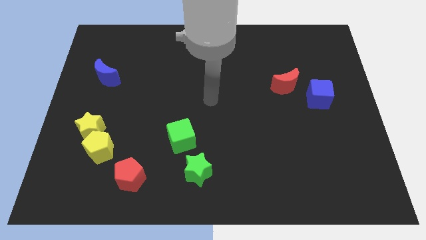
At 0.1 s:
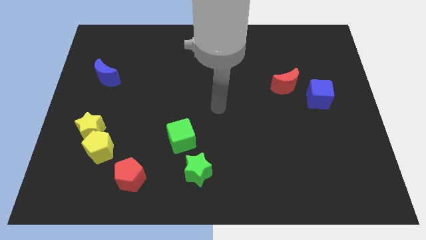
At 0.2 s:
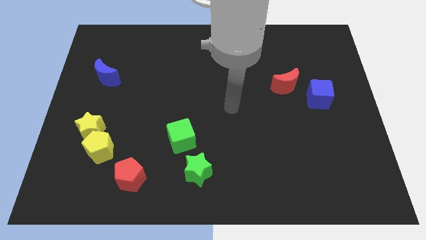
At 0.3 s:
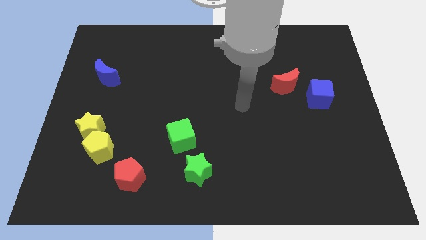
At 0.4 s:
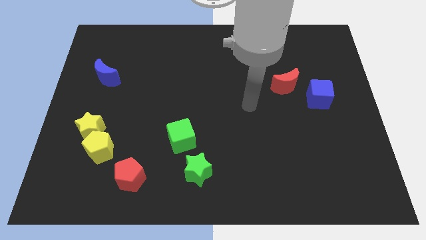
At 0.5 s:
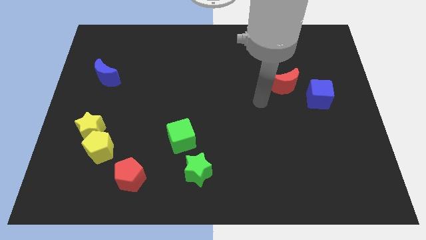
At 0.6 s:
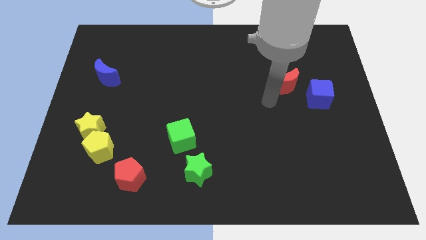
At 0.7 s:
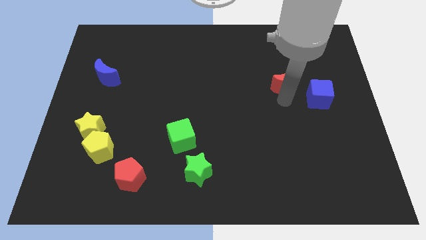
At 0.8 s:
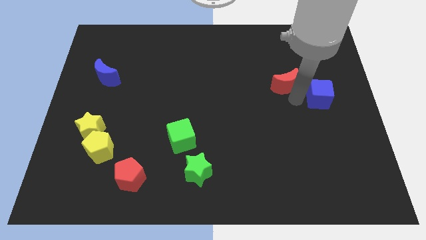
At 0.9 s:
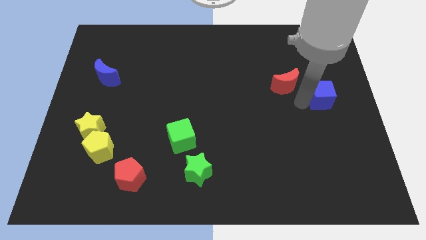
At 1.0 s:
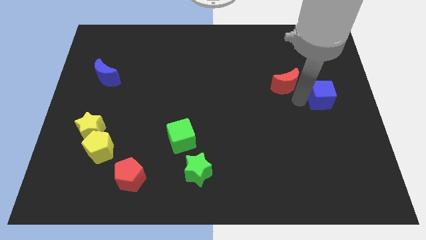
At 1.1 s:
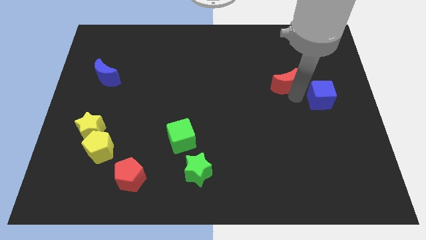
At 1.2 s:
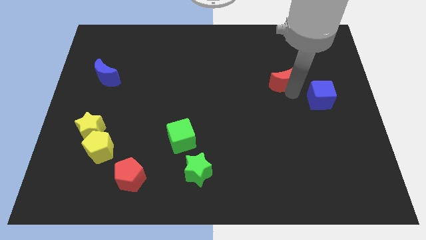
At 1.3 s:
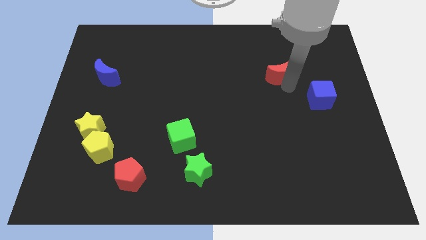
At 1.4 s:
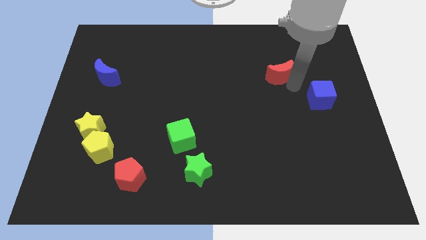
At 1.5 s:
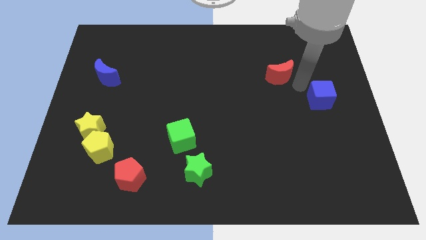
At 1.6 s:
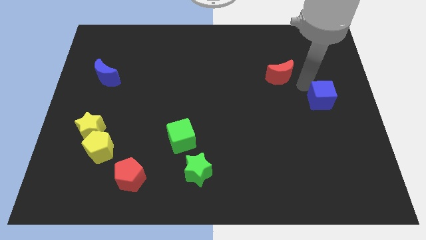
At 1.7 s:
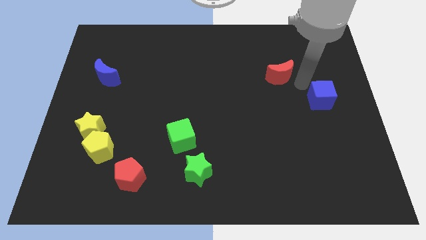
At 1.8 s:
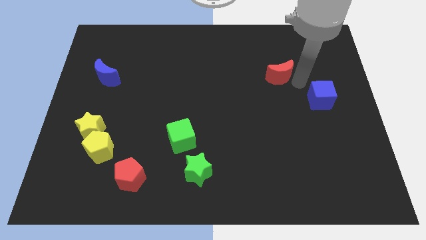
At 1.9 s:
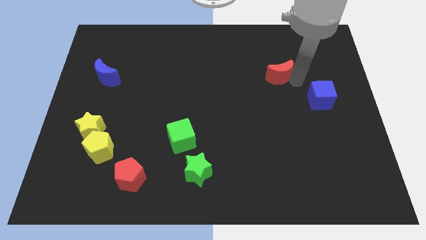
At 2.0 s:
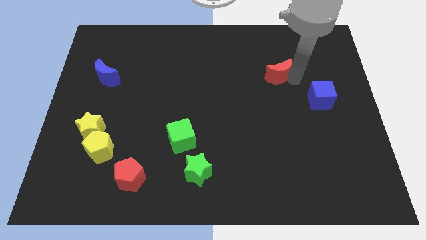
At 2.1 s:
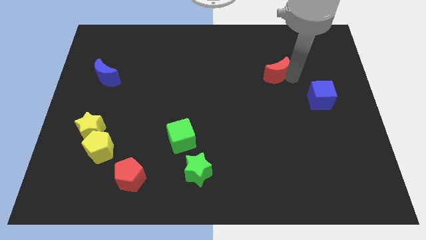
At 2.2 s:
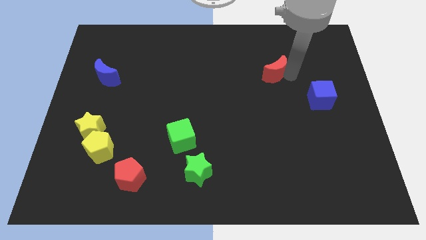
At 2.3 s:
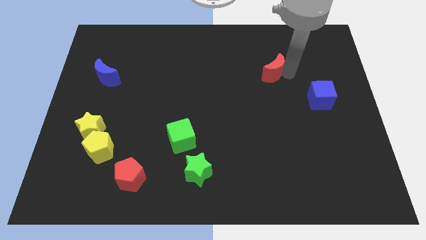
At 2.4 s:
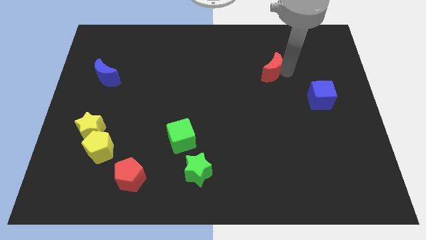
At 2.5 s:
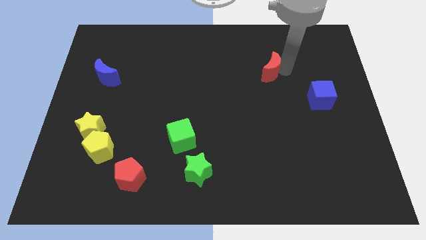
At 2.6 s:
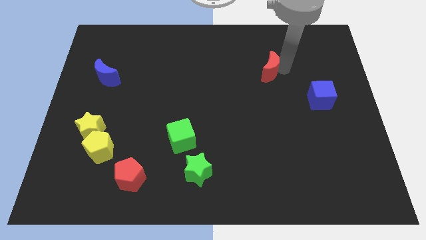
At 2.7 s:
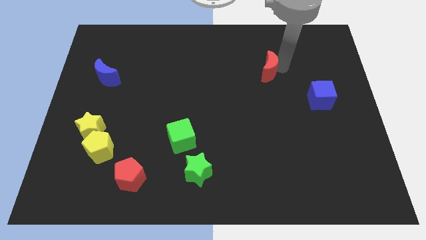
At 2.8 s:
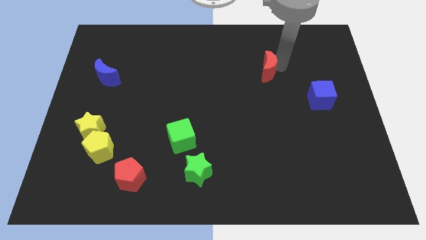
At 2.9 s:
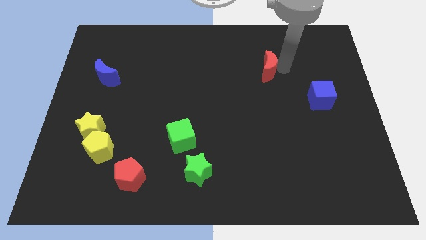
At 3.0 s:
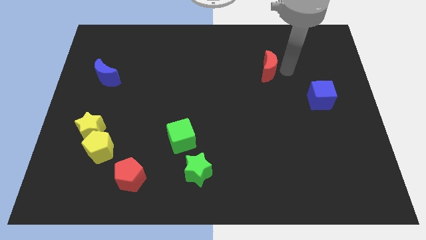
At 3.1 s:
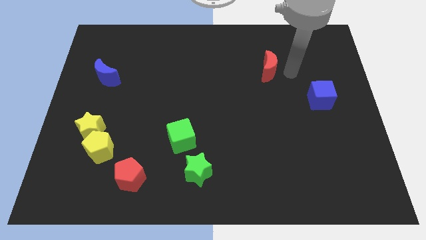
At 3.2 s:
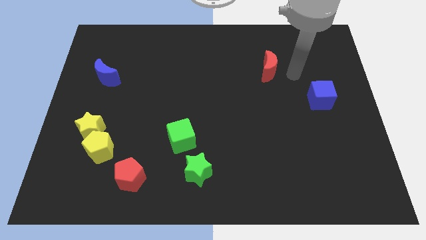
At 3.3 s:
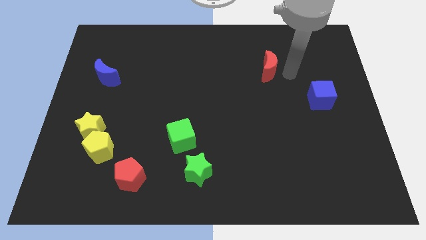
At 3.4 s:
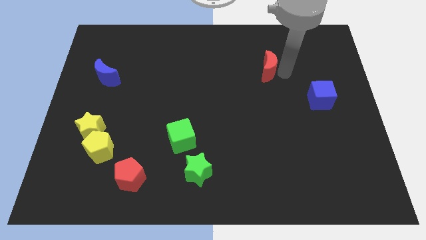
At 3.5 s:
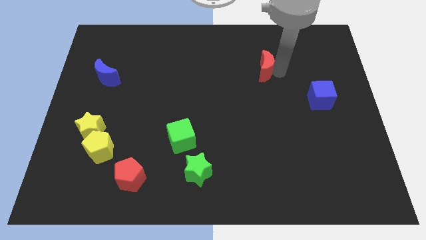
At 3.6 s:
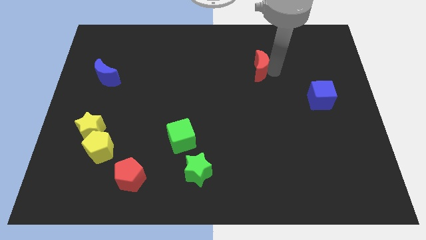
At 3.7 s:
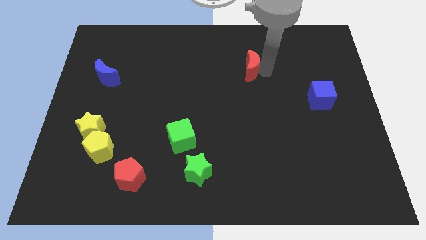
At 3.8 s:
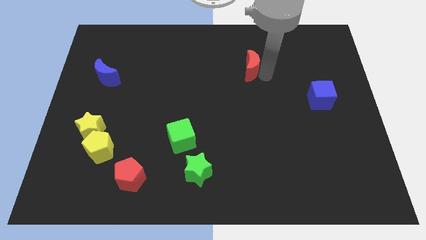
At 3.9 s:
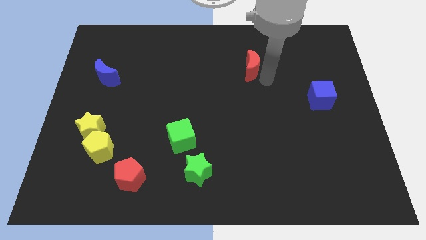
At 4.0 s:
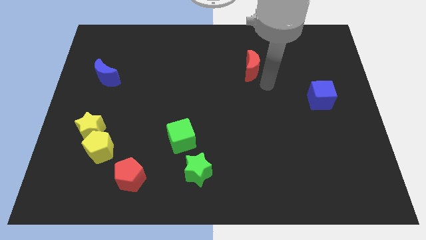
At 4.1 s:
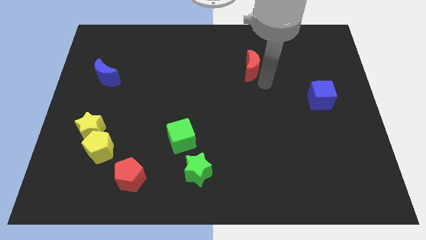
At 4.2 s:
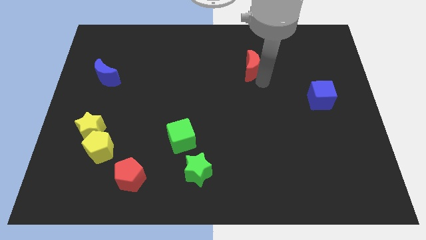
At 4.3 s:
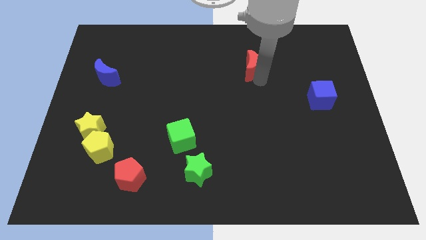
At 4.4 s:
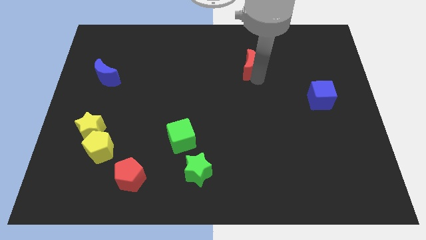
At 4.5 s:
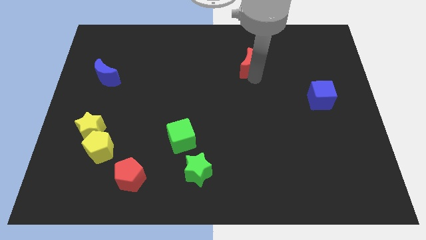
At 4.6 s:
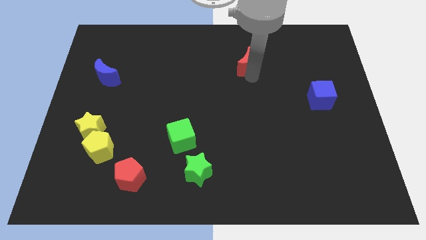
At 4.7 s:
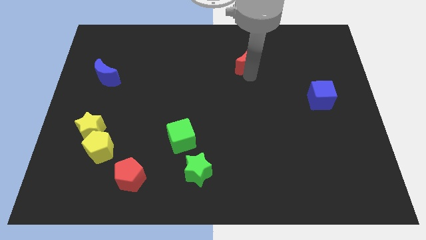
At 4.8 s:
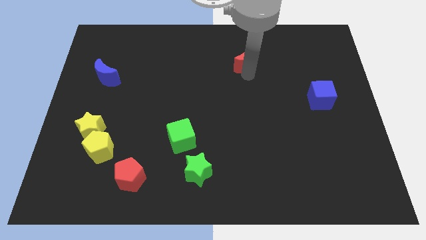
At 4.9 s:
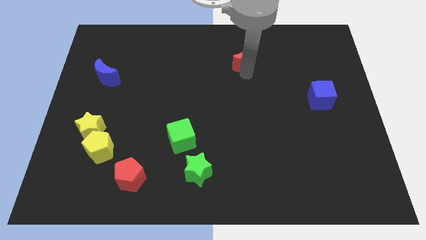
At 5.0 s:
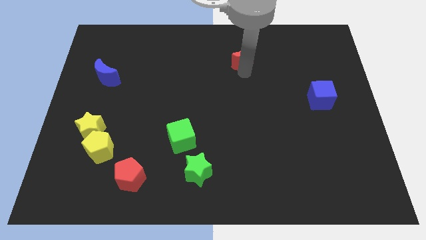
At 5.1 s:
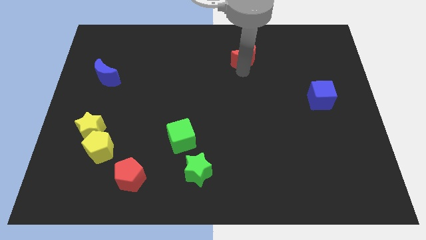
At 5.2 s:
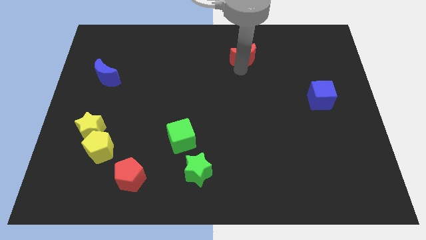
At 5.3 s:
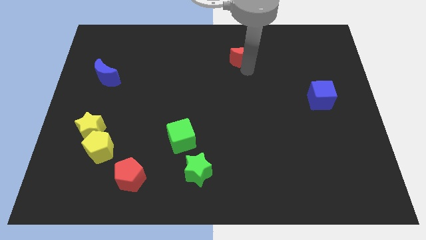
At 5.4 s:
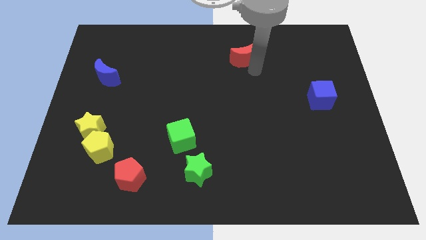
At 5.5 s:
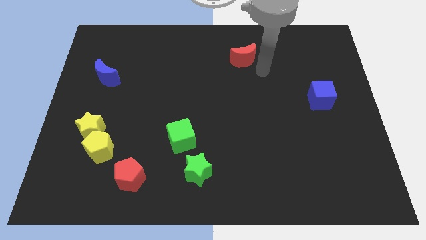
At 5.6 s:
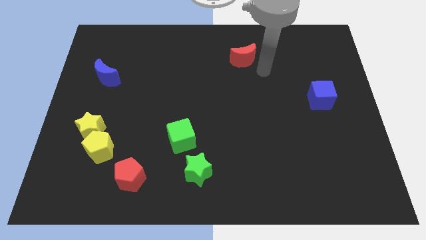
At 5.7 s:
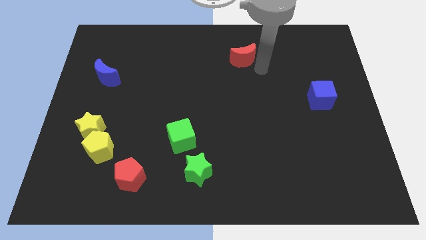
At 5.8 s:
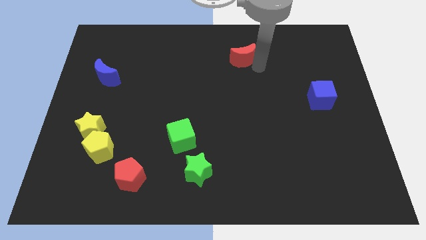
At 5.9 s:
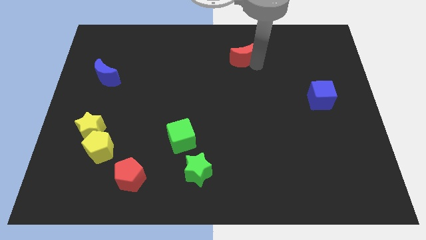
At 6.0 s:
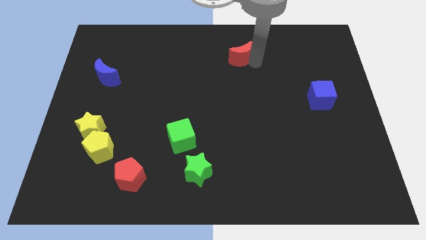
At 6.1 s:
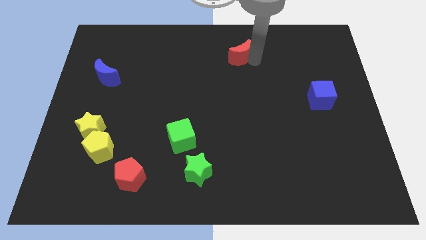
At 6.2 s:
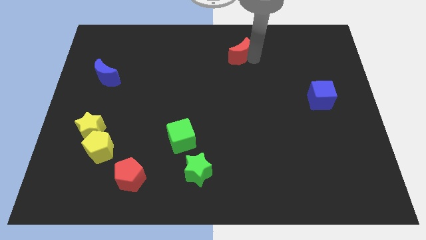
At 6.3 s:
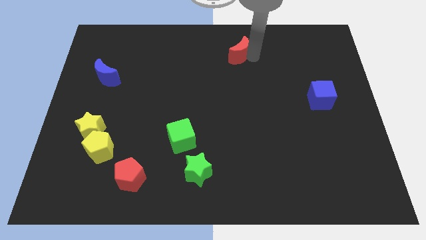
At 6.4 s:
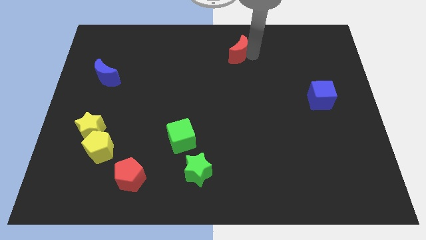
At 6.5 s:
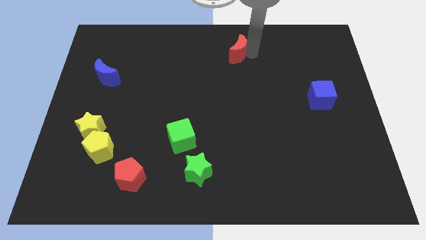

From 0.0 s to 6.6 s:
move the red moon to the towards your base

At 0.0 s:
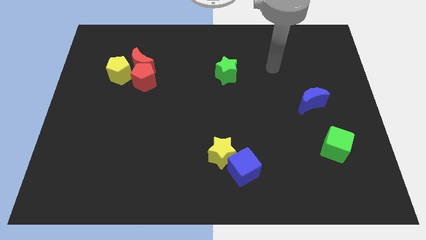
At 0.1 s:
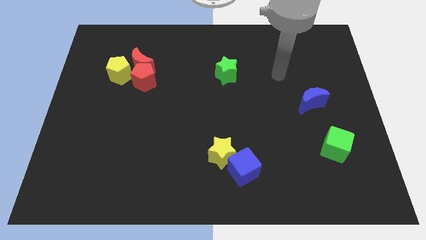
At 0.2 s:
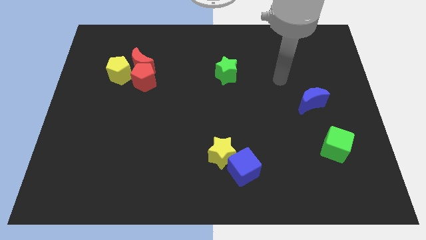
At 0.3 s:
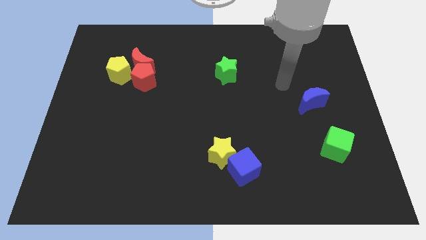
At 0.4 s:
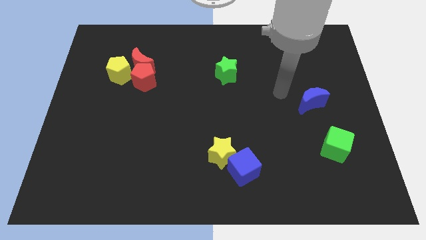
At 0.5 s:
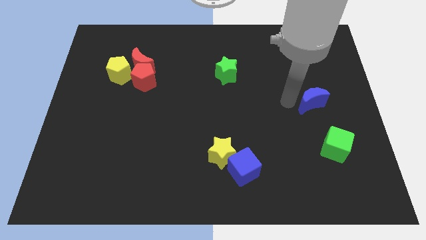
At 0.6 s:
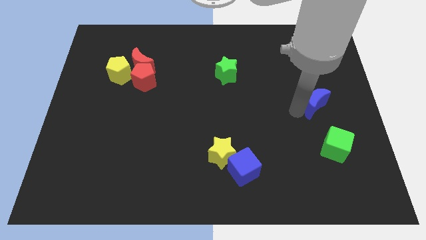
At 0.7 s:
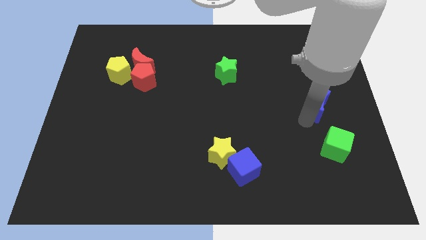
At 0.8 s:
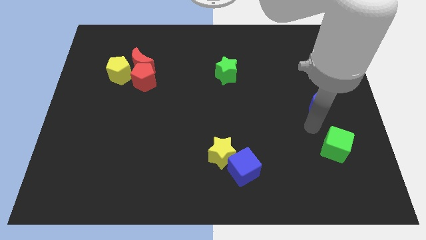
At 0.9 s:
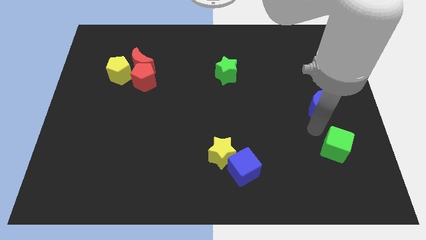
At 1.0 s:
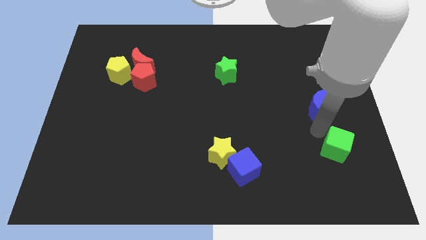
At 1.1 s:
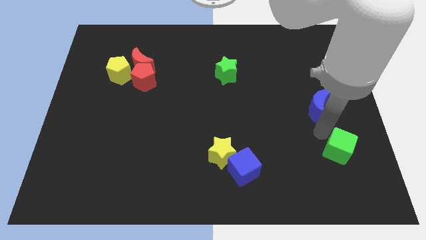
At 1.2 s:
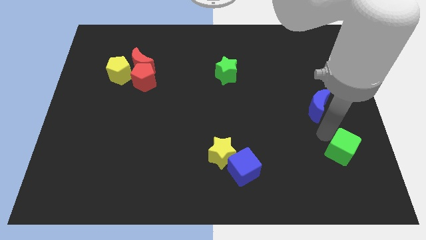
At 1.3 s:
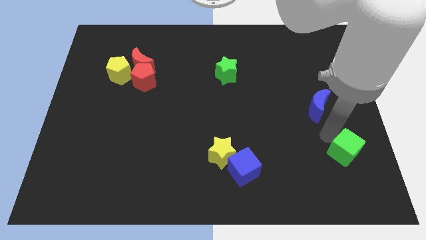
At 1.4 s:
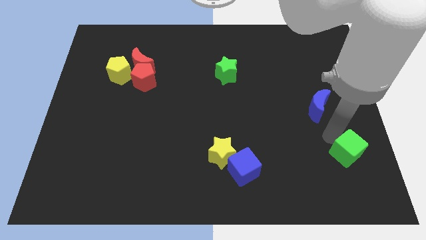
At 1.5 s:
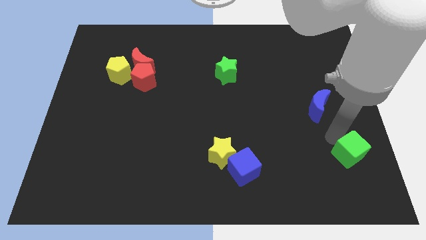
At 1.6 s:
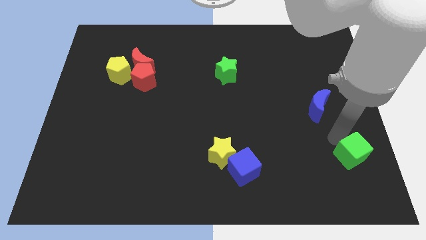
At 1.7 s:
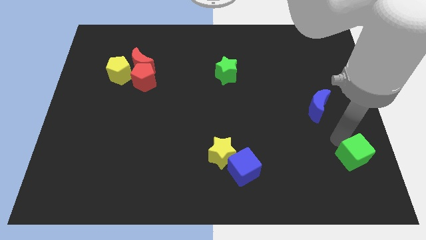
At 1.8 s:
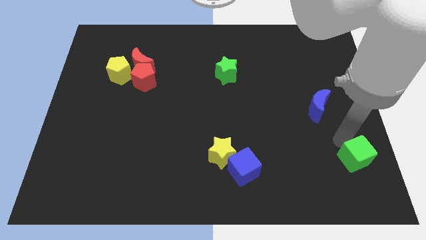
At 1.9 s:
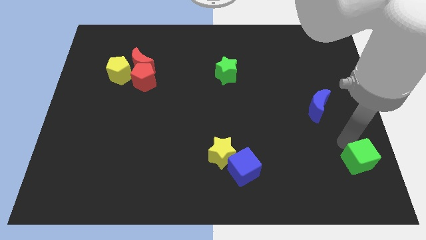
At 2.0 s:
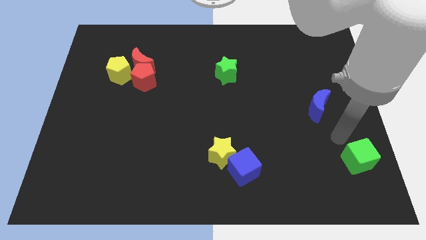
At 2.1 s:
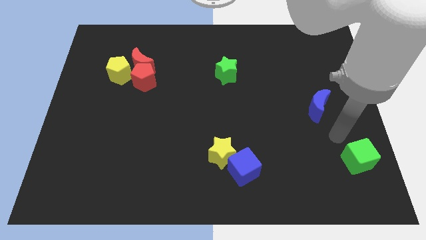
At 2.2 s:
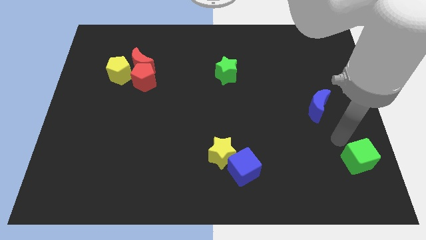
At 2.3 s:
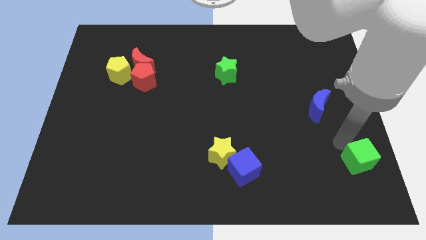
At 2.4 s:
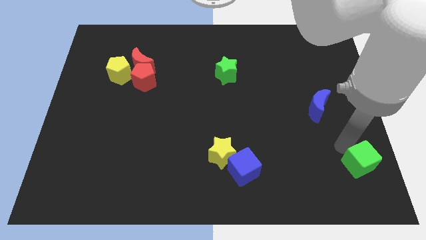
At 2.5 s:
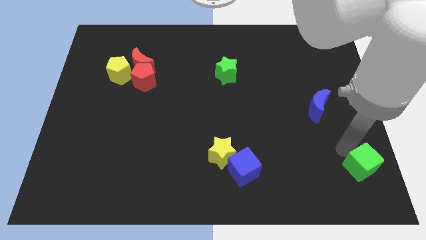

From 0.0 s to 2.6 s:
slide the green cube to the bottom right corner
